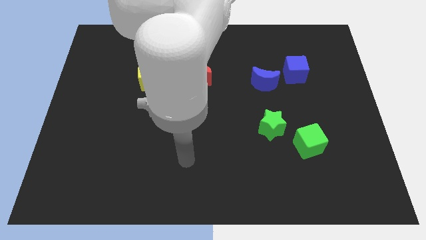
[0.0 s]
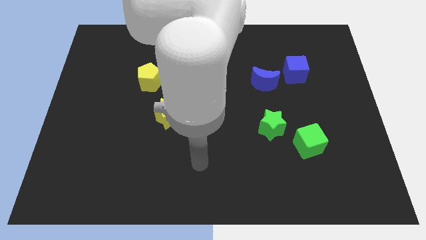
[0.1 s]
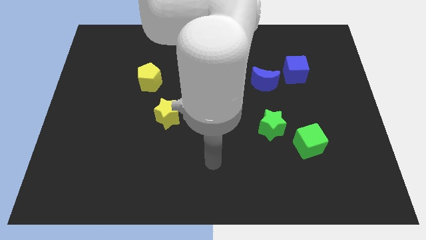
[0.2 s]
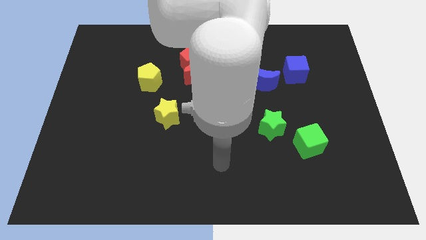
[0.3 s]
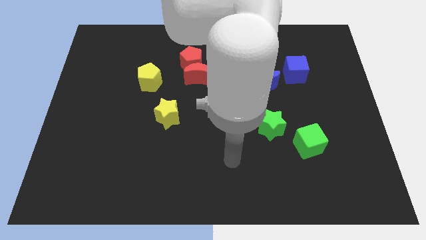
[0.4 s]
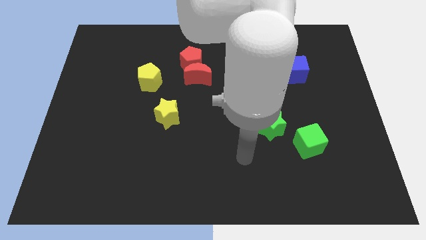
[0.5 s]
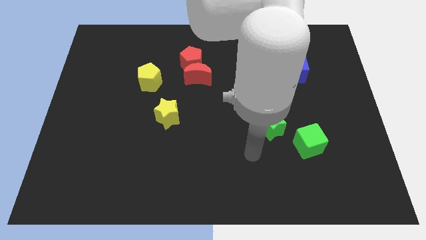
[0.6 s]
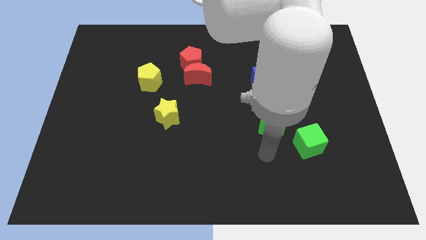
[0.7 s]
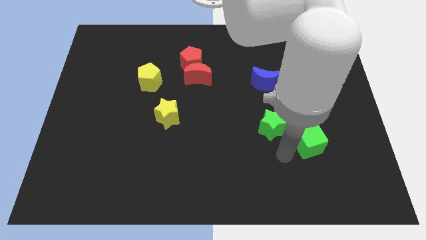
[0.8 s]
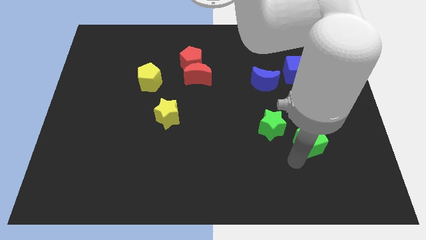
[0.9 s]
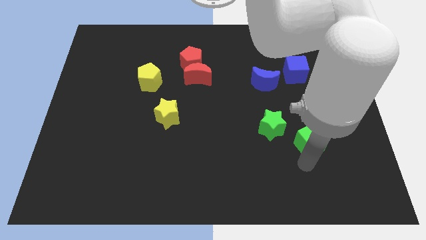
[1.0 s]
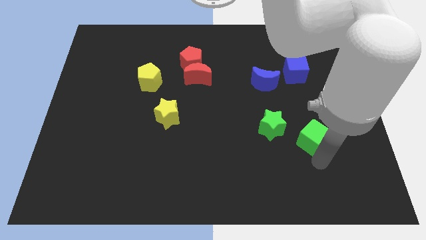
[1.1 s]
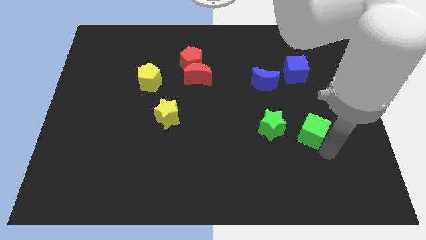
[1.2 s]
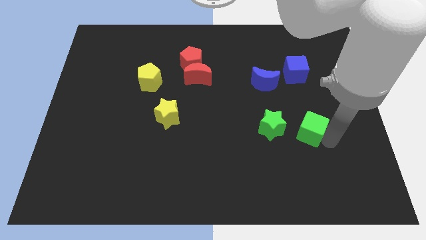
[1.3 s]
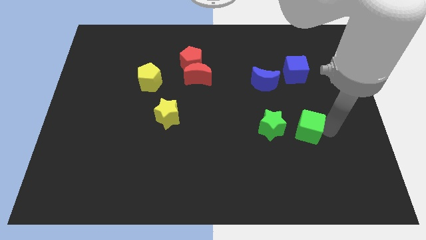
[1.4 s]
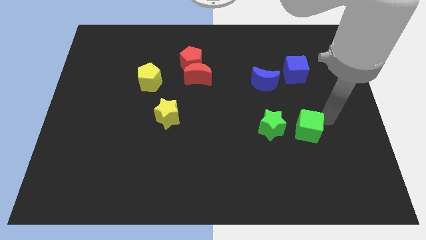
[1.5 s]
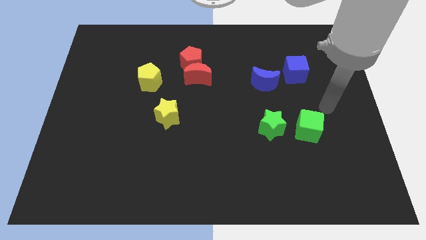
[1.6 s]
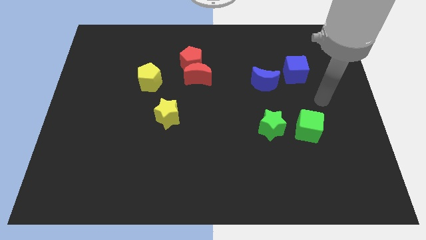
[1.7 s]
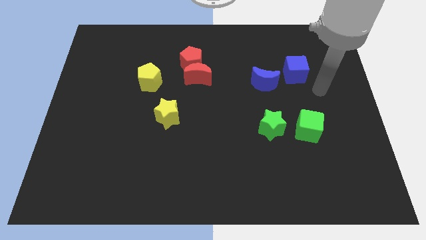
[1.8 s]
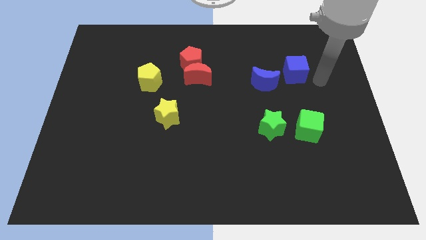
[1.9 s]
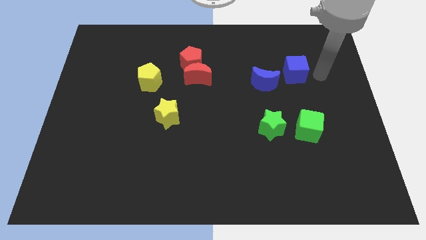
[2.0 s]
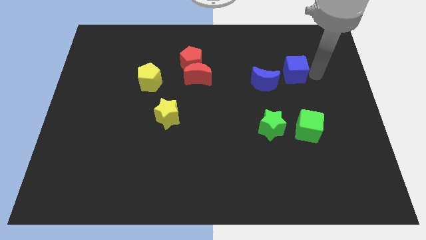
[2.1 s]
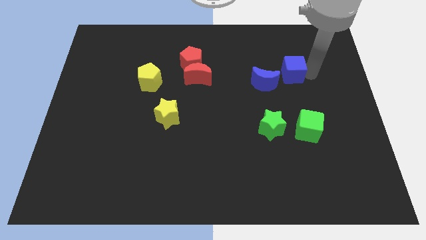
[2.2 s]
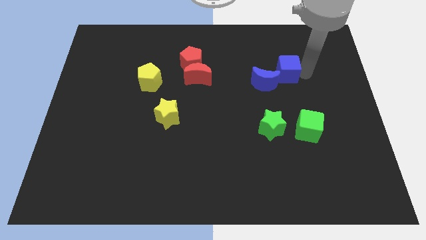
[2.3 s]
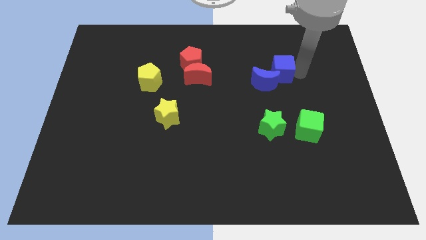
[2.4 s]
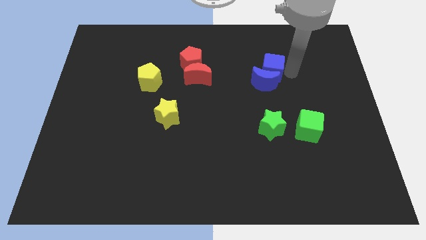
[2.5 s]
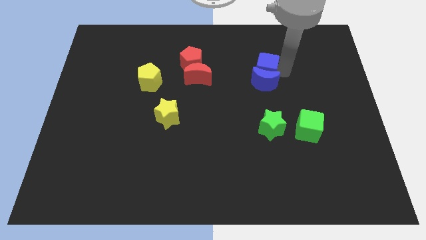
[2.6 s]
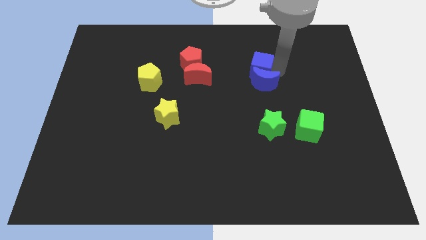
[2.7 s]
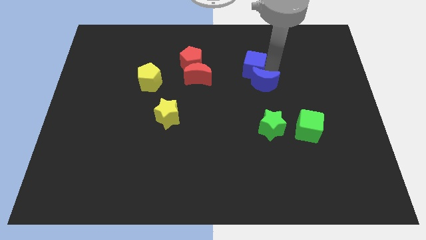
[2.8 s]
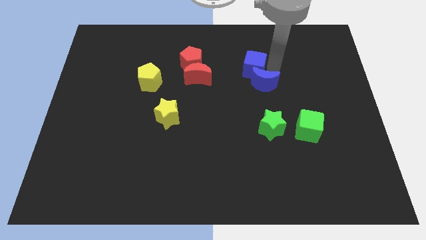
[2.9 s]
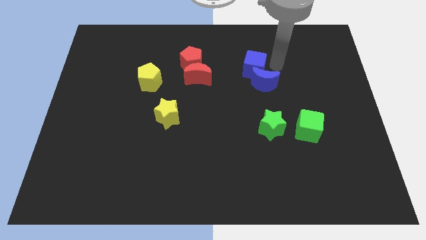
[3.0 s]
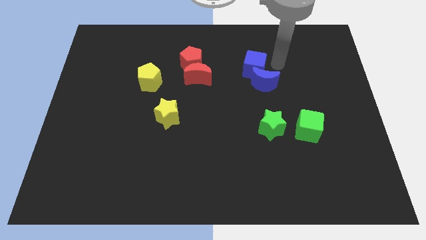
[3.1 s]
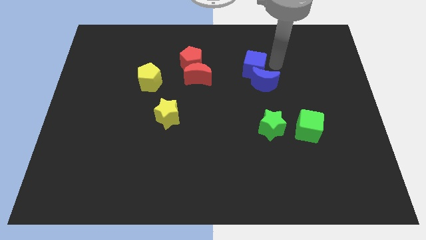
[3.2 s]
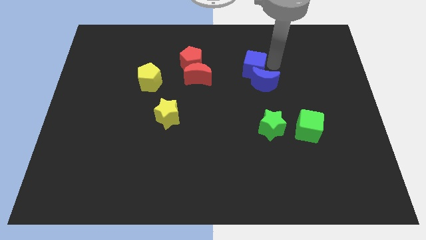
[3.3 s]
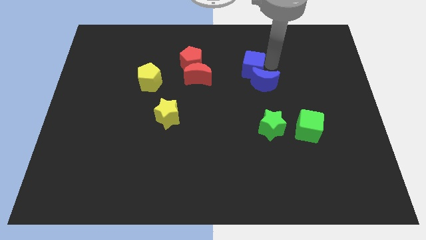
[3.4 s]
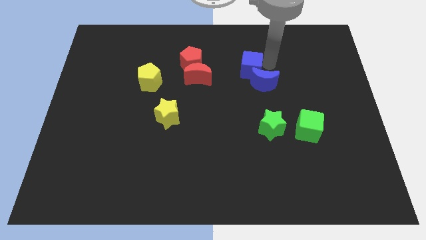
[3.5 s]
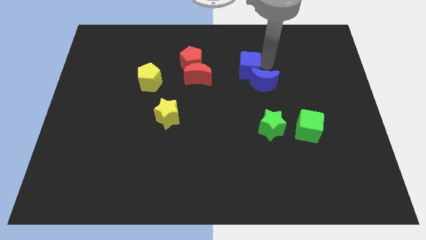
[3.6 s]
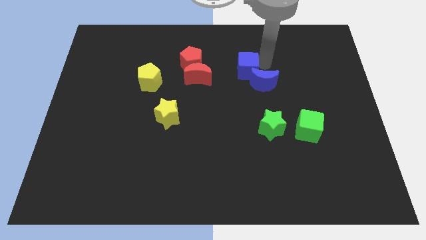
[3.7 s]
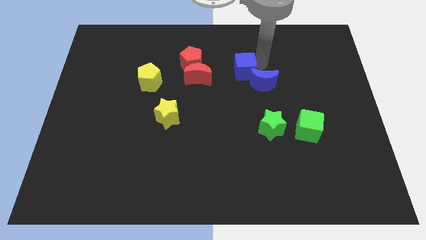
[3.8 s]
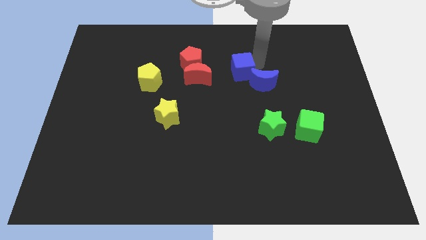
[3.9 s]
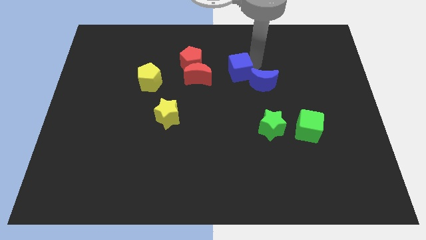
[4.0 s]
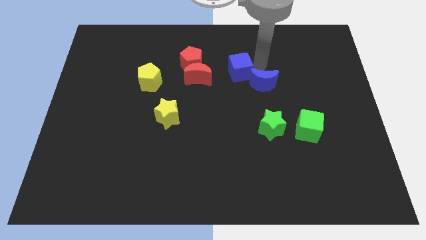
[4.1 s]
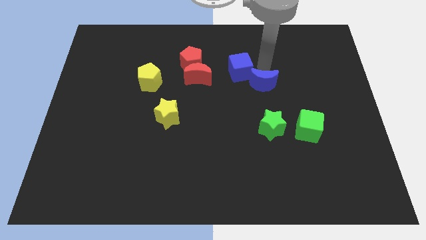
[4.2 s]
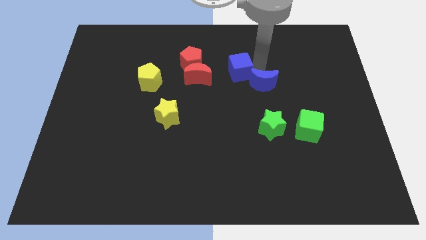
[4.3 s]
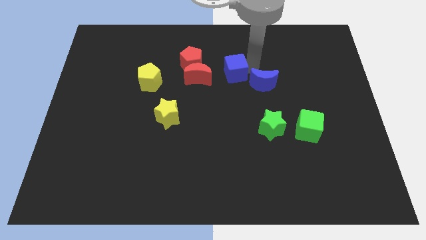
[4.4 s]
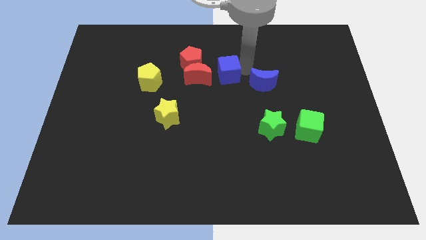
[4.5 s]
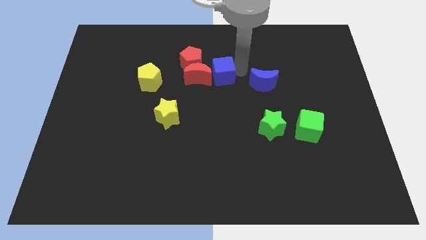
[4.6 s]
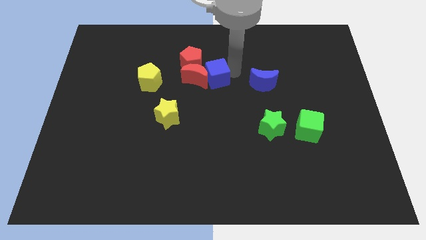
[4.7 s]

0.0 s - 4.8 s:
push the blue cube close to the red moon

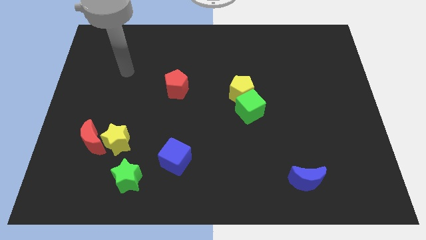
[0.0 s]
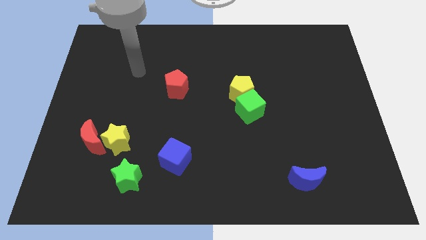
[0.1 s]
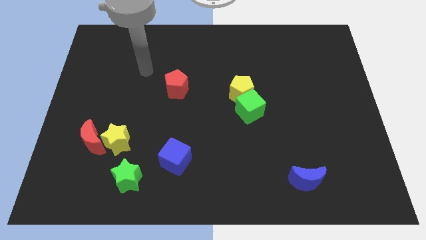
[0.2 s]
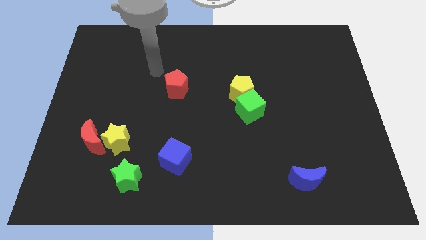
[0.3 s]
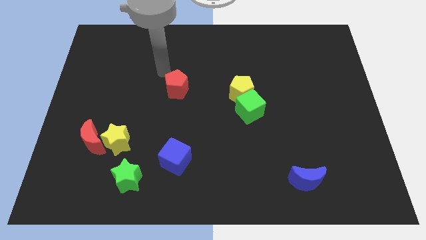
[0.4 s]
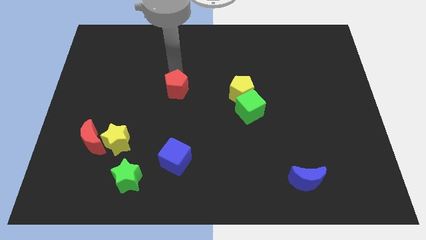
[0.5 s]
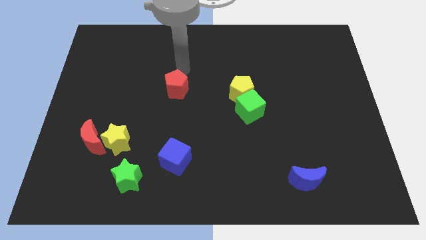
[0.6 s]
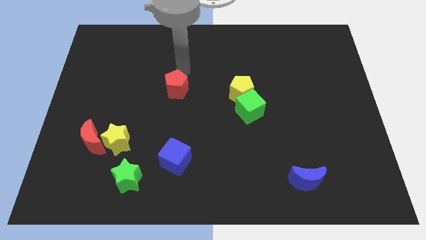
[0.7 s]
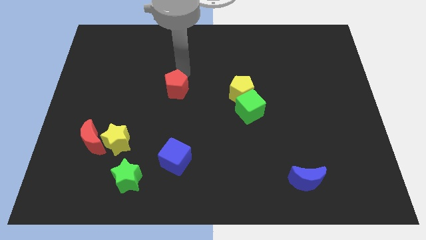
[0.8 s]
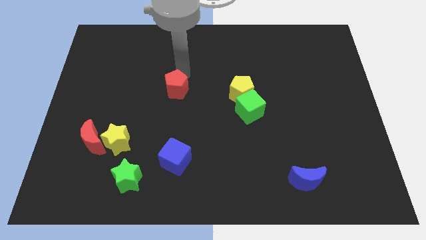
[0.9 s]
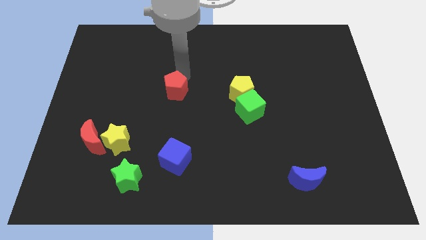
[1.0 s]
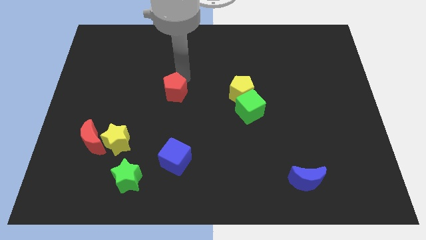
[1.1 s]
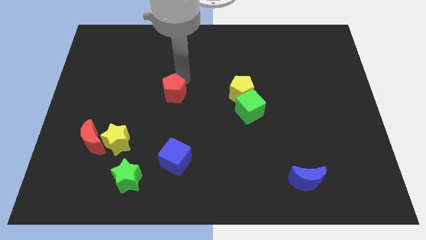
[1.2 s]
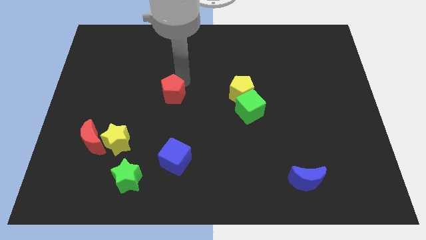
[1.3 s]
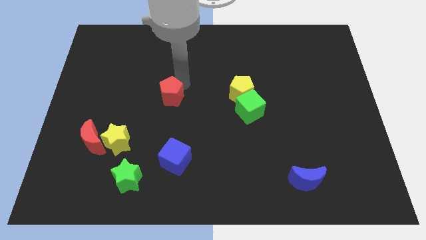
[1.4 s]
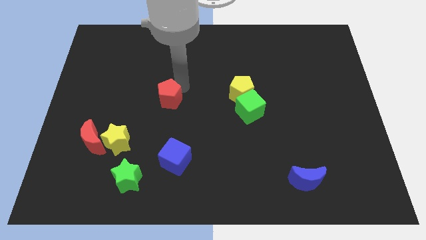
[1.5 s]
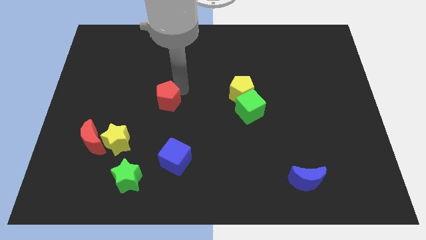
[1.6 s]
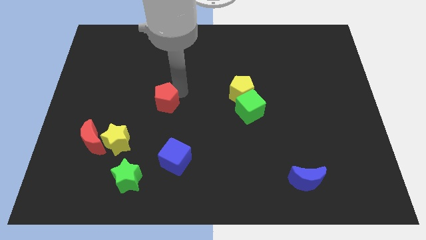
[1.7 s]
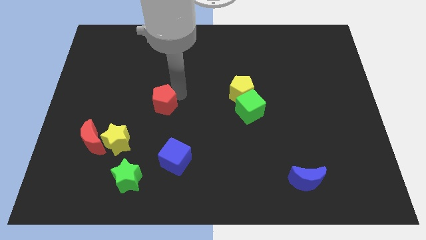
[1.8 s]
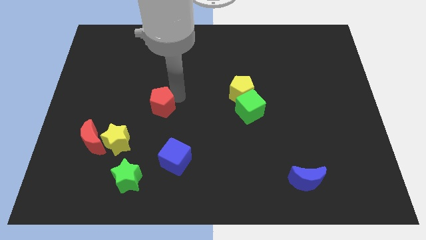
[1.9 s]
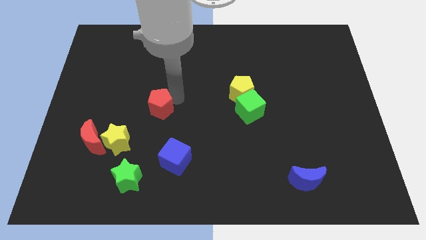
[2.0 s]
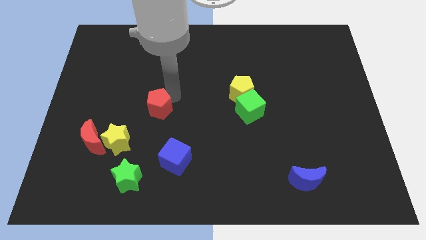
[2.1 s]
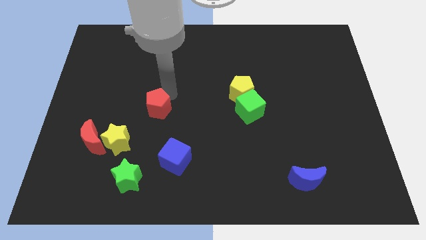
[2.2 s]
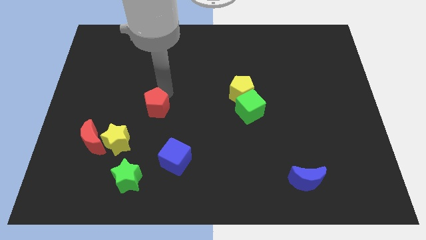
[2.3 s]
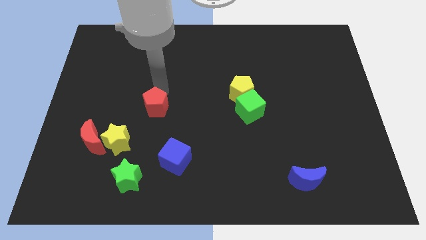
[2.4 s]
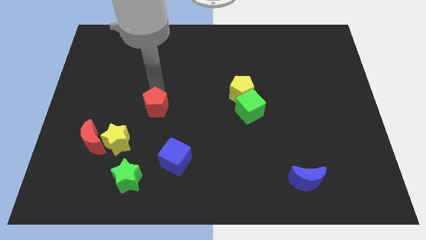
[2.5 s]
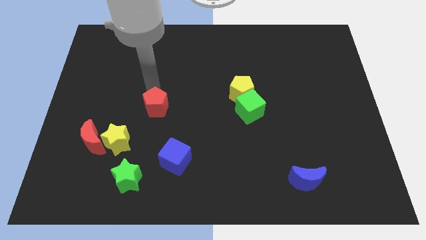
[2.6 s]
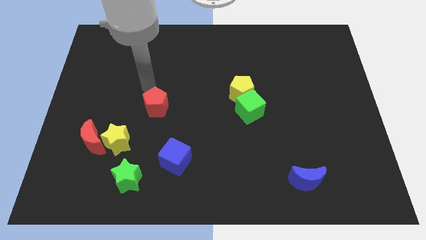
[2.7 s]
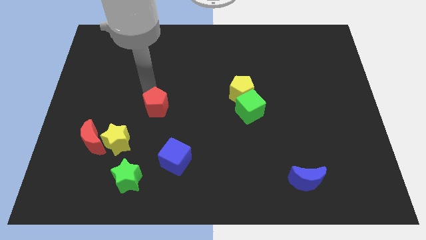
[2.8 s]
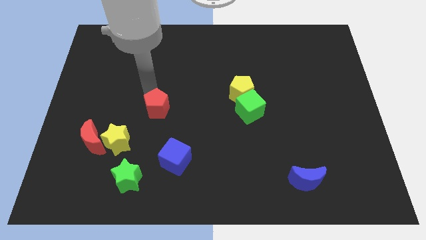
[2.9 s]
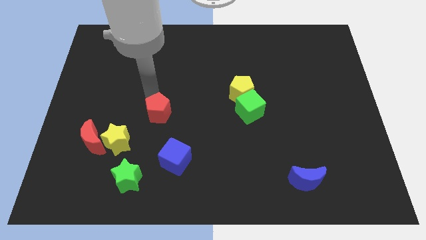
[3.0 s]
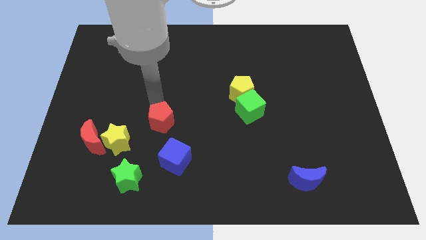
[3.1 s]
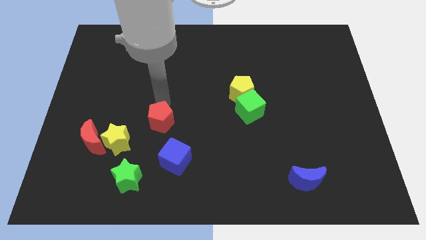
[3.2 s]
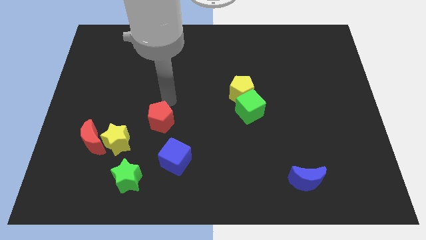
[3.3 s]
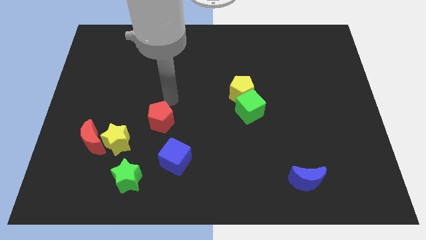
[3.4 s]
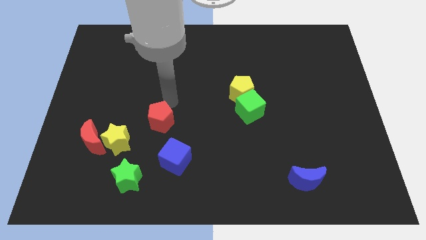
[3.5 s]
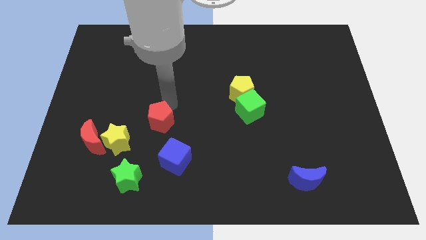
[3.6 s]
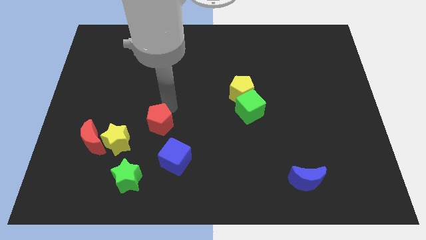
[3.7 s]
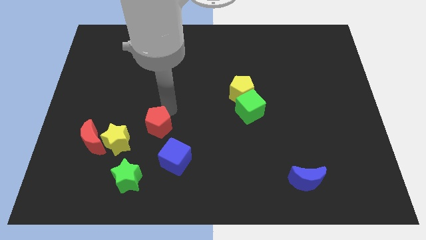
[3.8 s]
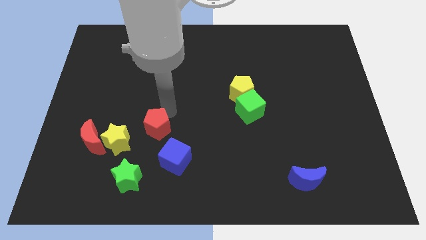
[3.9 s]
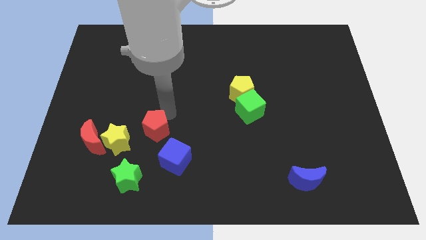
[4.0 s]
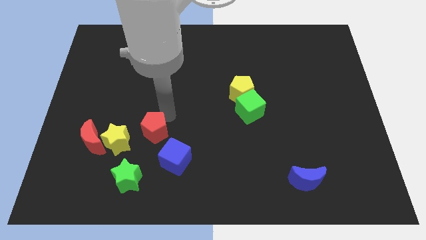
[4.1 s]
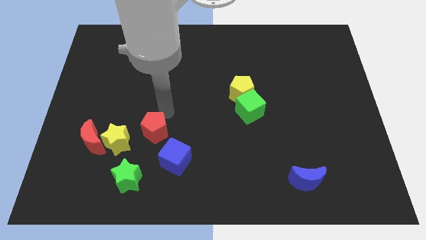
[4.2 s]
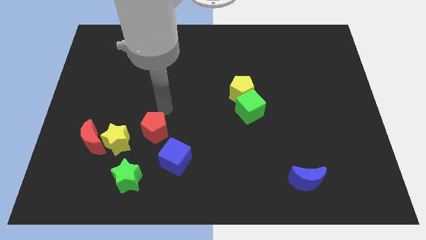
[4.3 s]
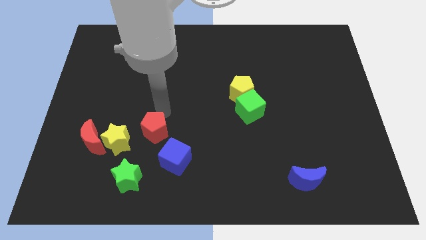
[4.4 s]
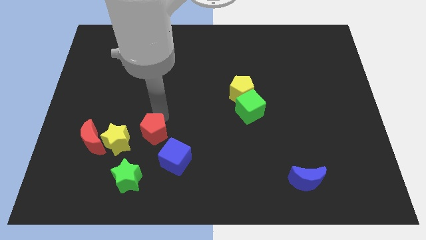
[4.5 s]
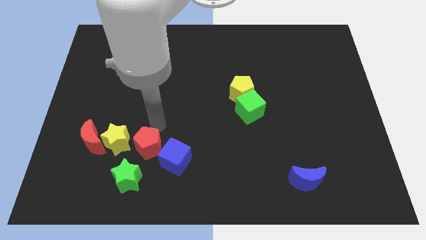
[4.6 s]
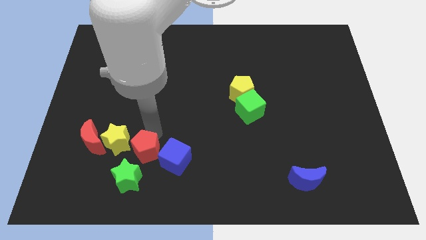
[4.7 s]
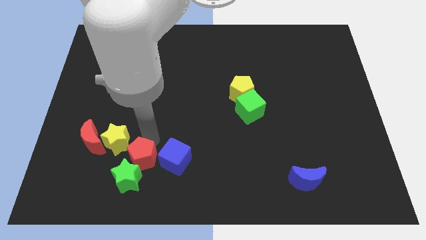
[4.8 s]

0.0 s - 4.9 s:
move the red pentagon towards the green star
